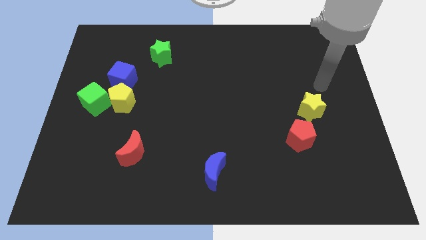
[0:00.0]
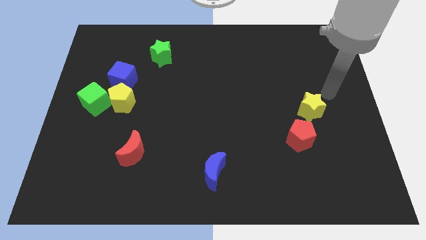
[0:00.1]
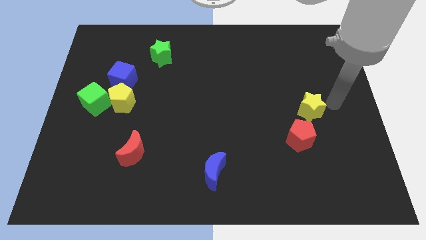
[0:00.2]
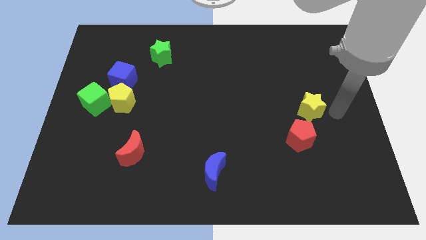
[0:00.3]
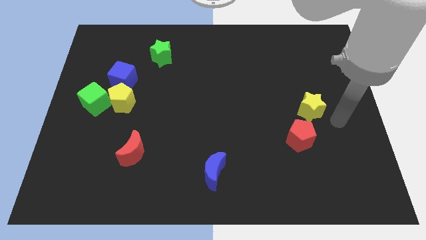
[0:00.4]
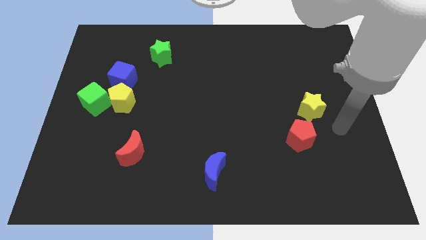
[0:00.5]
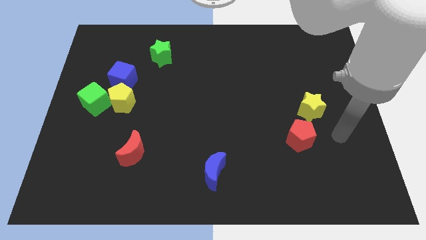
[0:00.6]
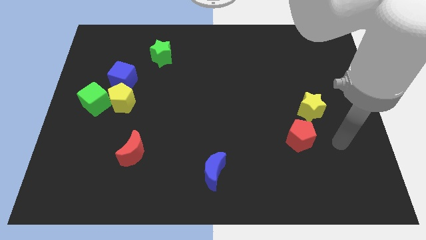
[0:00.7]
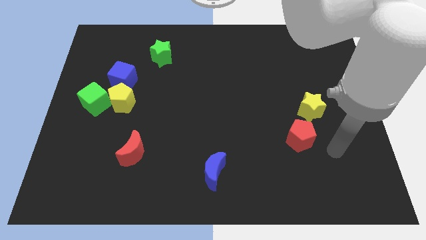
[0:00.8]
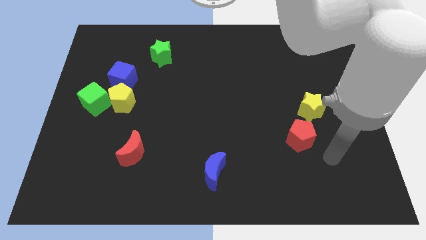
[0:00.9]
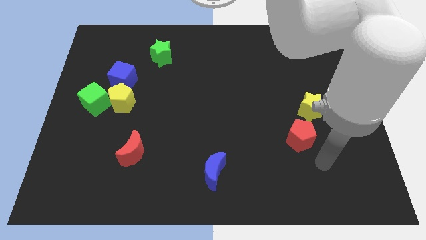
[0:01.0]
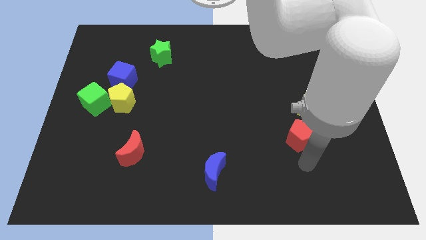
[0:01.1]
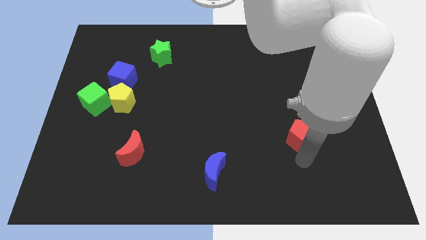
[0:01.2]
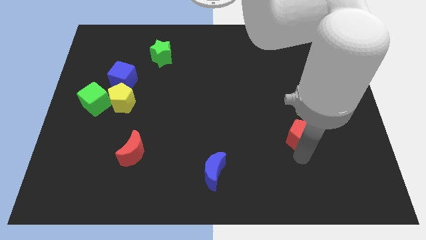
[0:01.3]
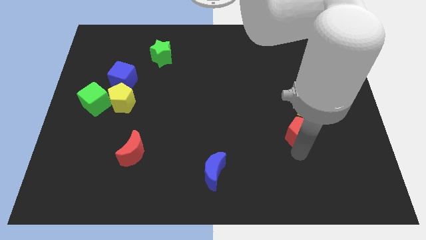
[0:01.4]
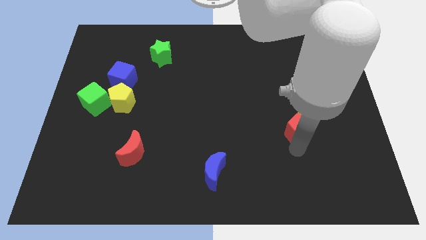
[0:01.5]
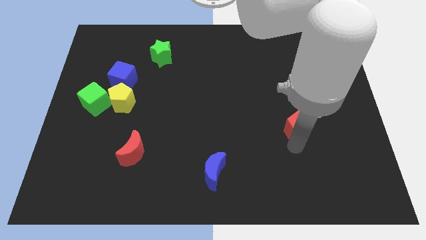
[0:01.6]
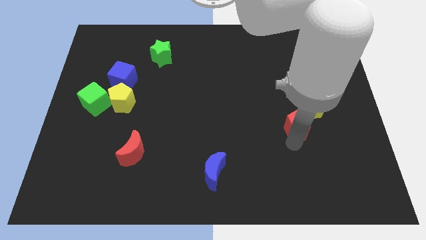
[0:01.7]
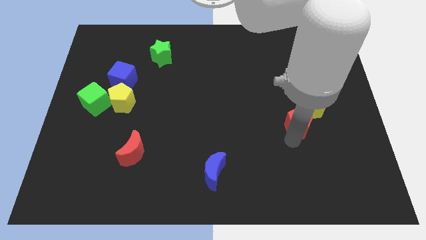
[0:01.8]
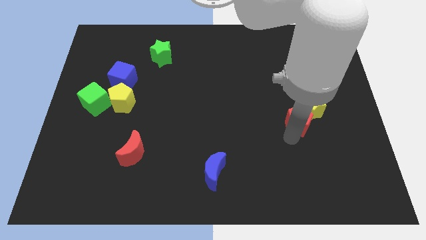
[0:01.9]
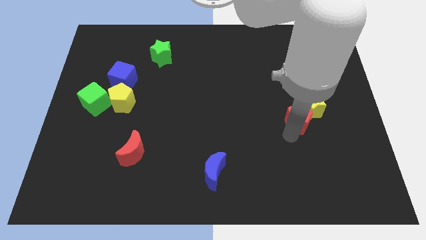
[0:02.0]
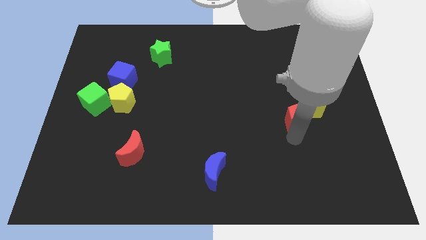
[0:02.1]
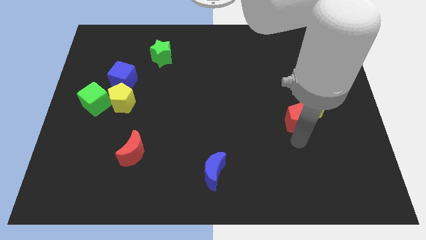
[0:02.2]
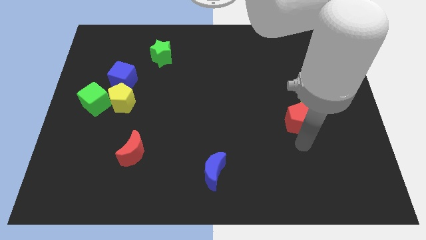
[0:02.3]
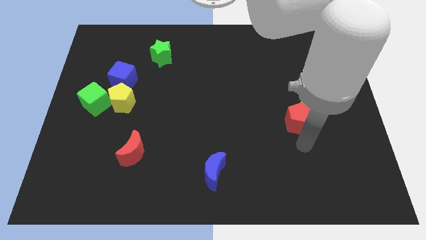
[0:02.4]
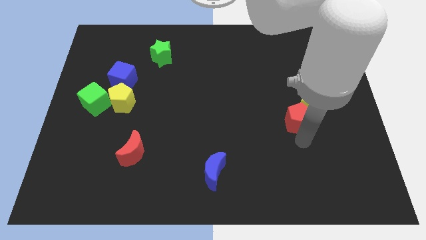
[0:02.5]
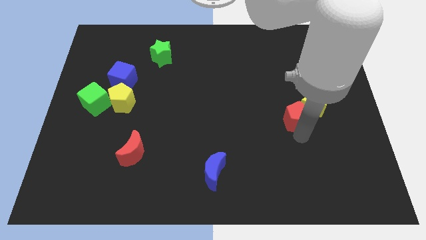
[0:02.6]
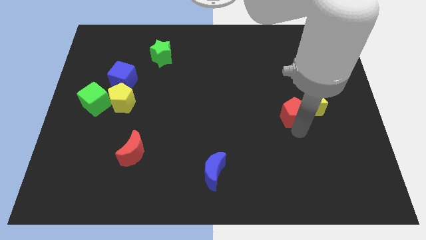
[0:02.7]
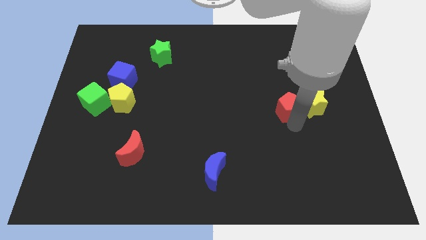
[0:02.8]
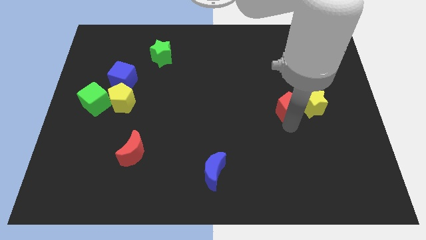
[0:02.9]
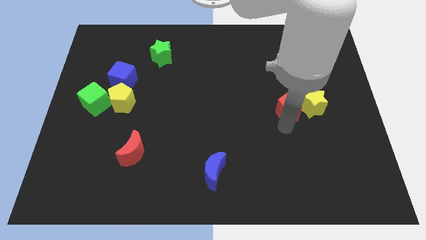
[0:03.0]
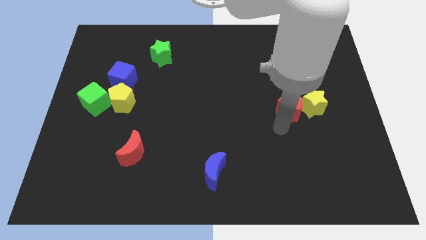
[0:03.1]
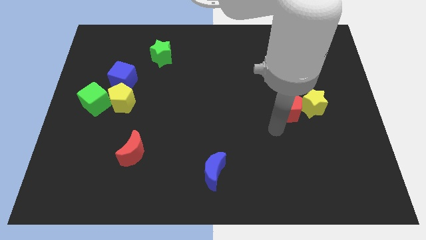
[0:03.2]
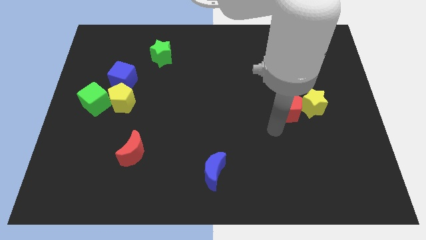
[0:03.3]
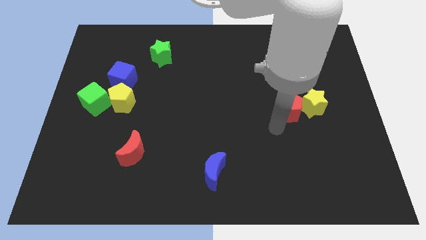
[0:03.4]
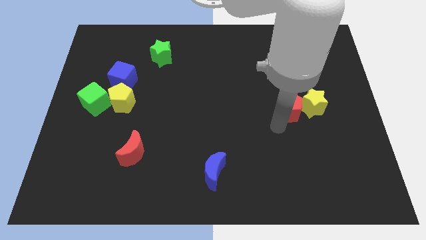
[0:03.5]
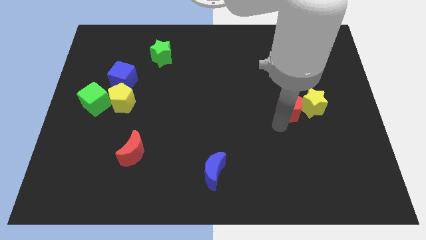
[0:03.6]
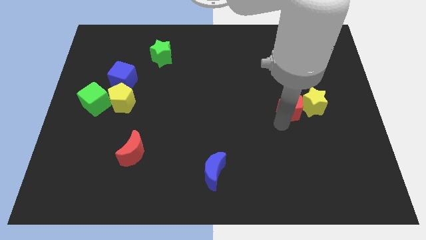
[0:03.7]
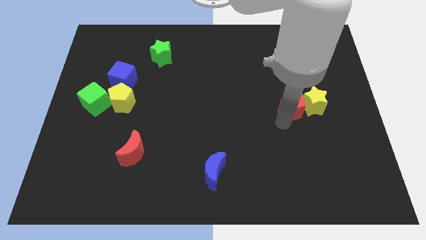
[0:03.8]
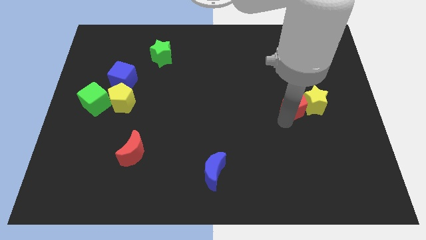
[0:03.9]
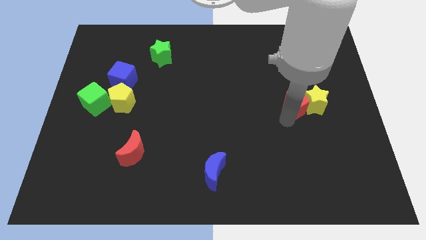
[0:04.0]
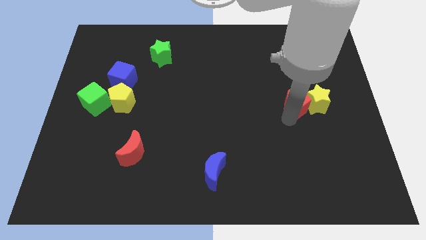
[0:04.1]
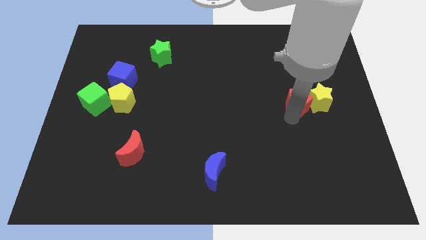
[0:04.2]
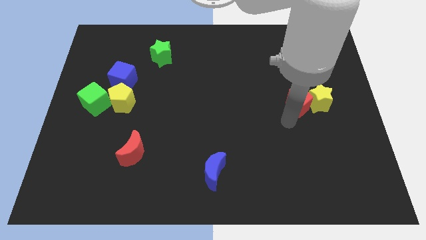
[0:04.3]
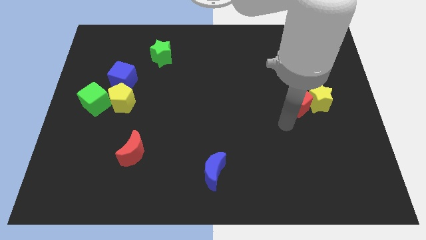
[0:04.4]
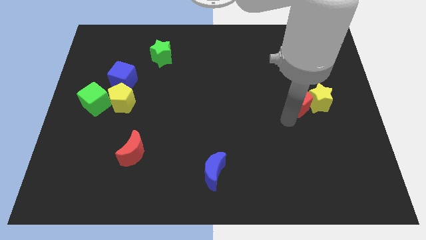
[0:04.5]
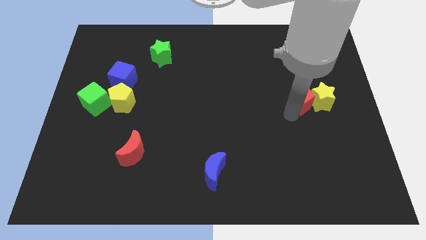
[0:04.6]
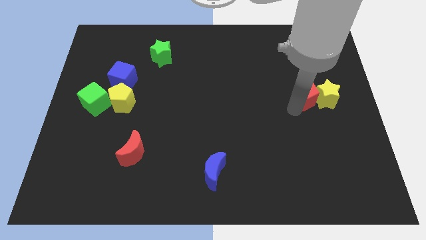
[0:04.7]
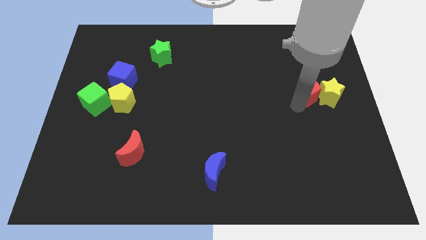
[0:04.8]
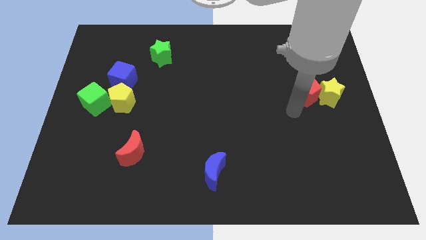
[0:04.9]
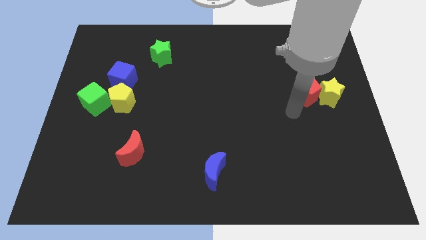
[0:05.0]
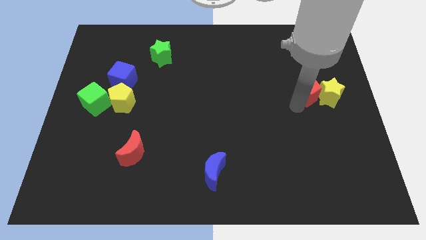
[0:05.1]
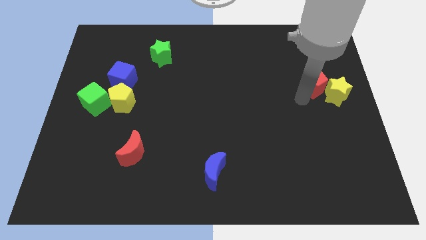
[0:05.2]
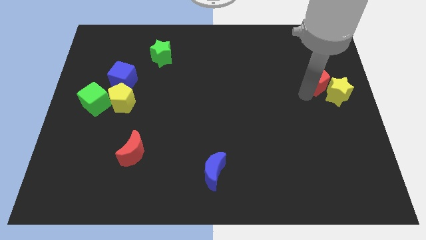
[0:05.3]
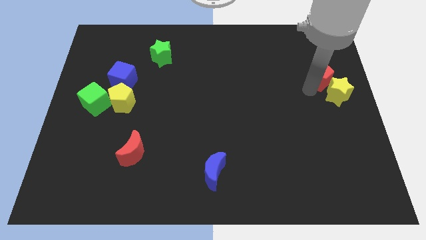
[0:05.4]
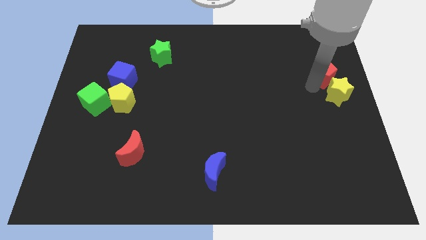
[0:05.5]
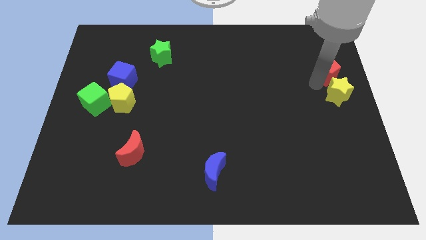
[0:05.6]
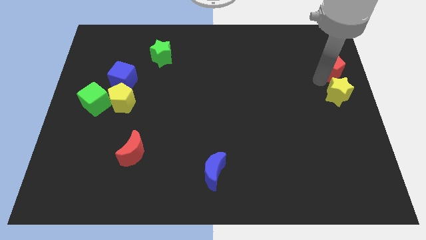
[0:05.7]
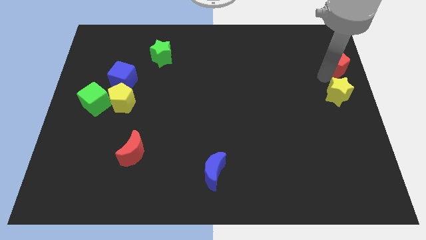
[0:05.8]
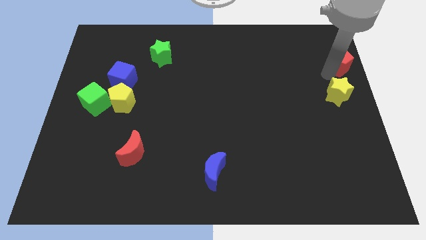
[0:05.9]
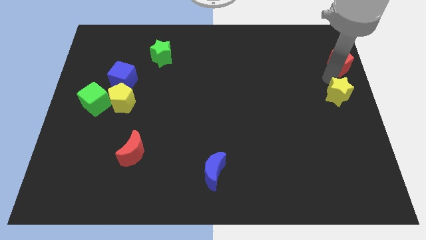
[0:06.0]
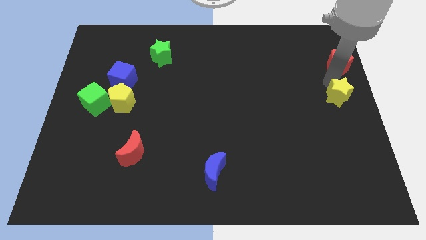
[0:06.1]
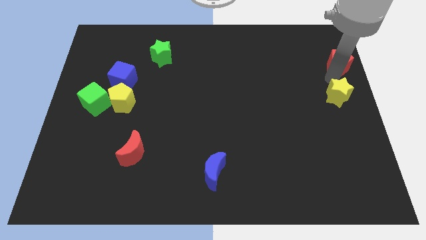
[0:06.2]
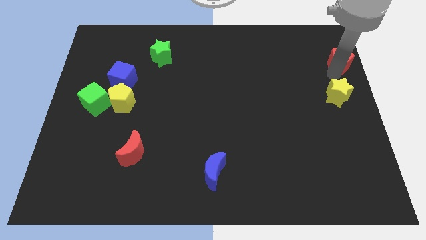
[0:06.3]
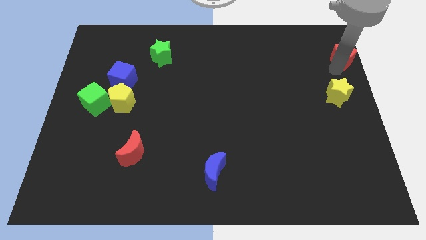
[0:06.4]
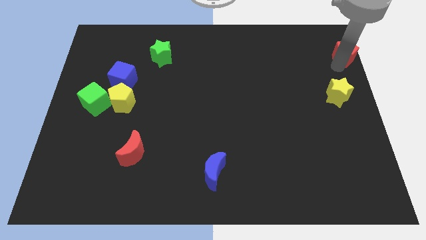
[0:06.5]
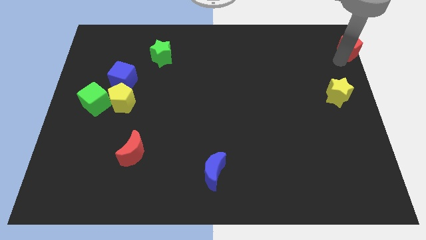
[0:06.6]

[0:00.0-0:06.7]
push the red pentagon to the top right of the board

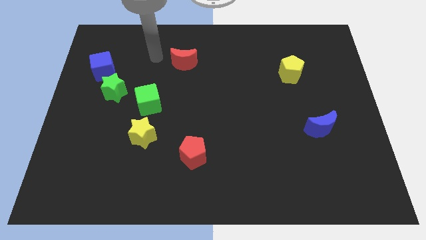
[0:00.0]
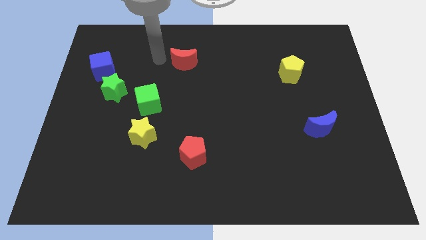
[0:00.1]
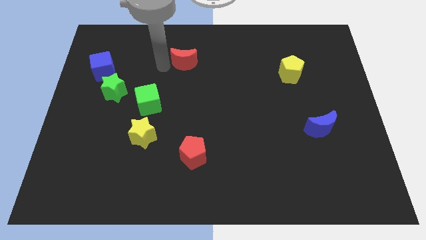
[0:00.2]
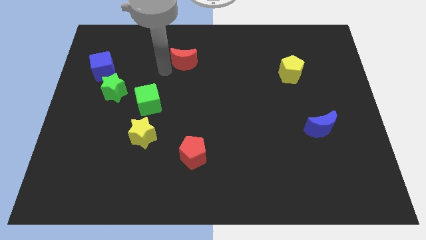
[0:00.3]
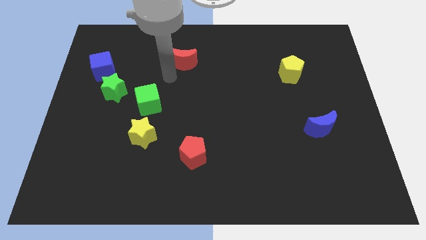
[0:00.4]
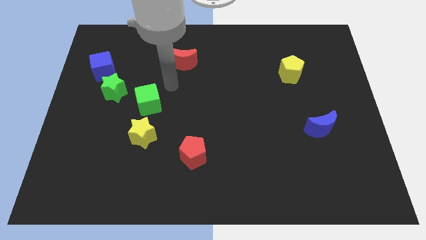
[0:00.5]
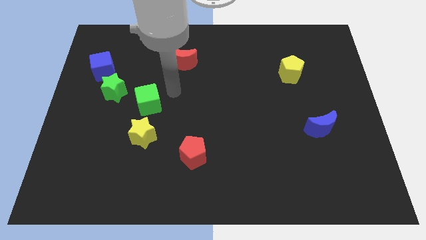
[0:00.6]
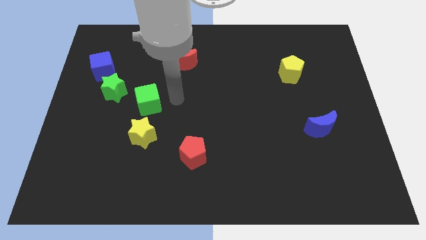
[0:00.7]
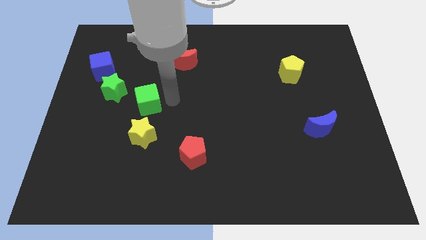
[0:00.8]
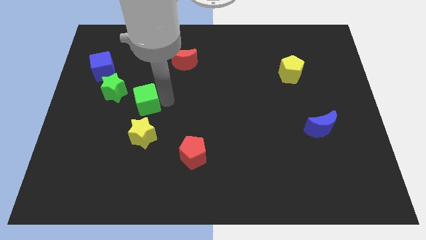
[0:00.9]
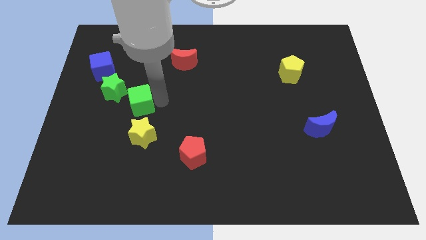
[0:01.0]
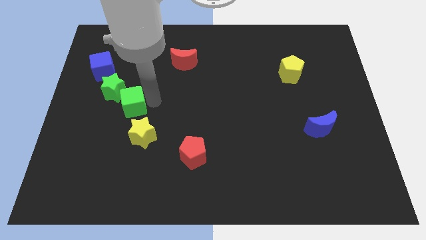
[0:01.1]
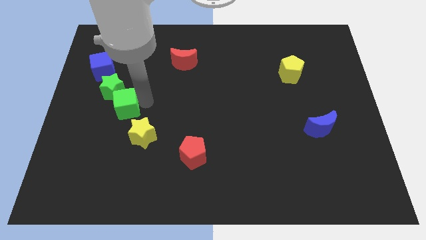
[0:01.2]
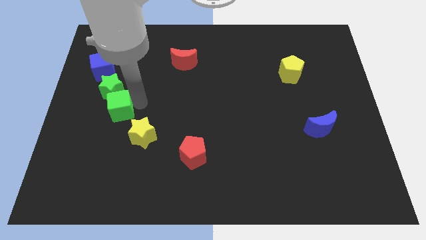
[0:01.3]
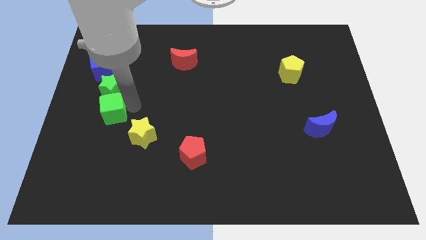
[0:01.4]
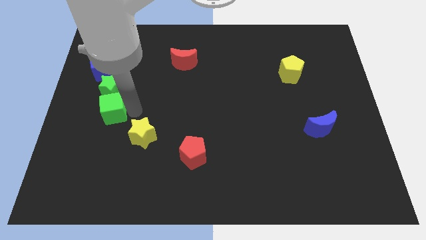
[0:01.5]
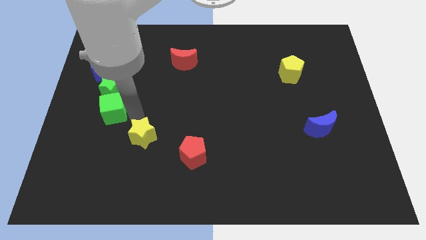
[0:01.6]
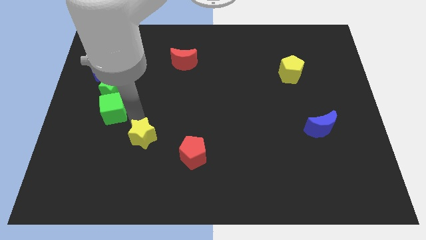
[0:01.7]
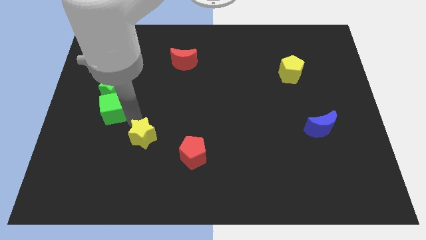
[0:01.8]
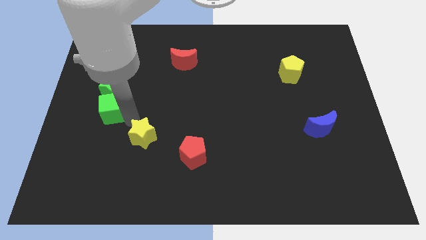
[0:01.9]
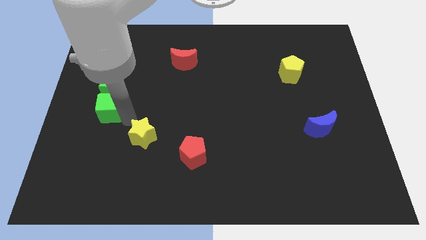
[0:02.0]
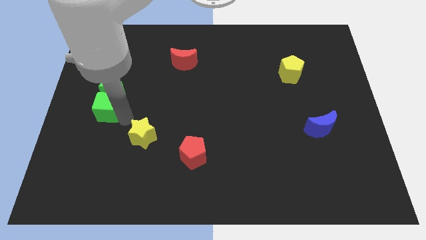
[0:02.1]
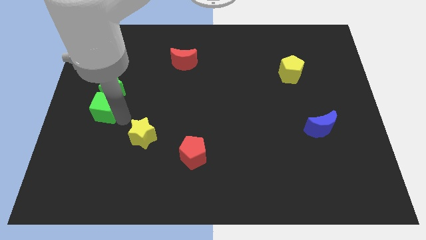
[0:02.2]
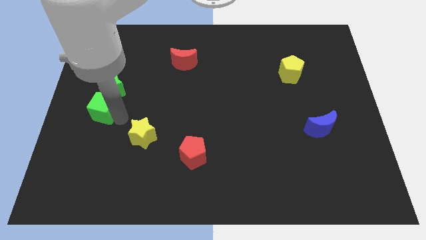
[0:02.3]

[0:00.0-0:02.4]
move the green cube to the left side of the board
